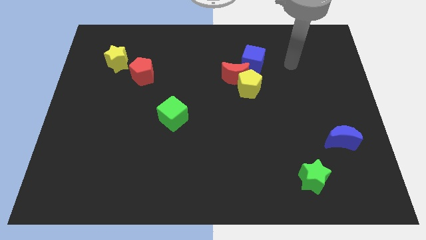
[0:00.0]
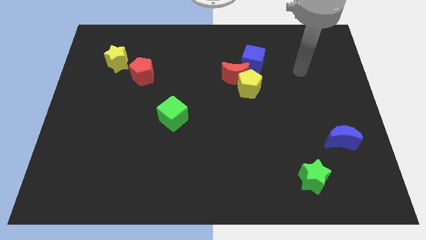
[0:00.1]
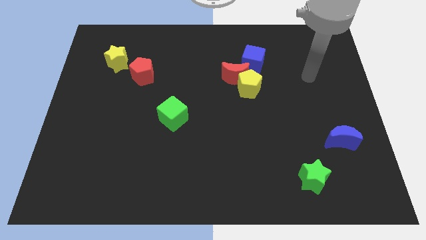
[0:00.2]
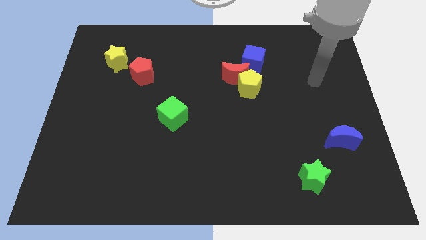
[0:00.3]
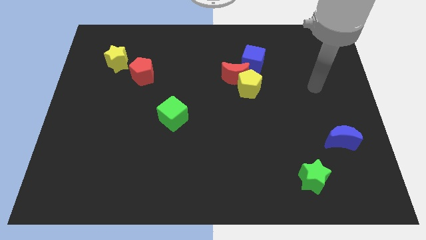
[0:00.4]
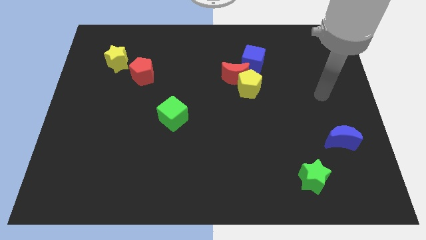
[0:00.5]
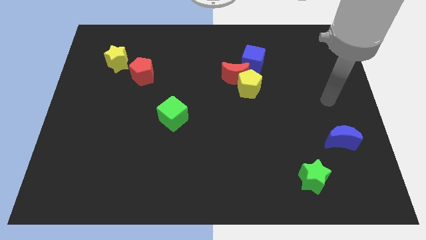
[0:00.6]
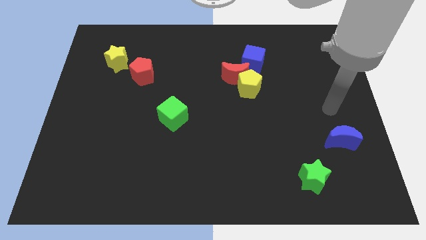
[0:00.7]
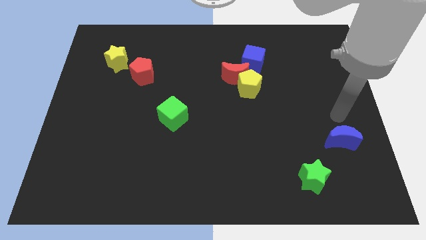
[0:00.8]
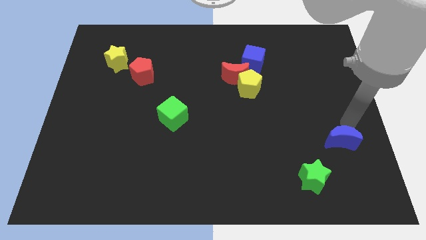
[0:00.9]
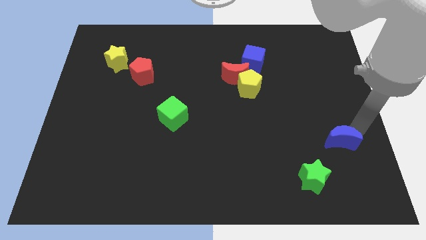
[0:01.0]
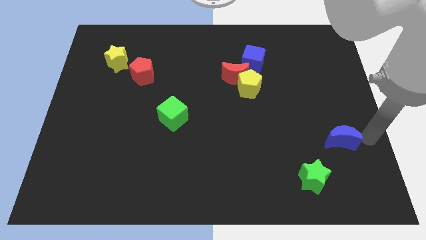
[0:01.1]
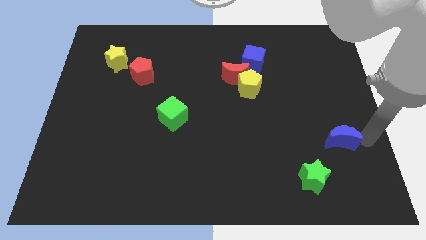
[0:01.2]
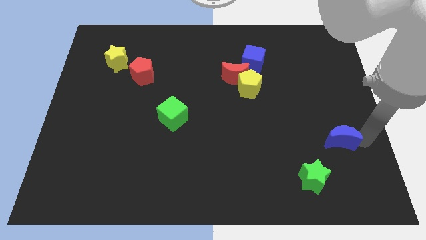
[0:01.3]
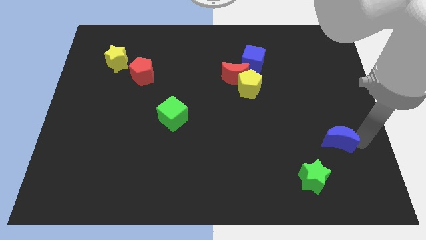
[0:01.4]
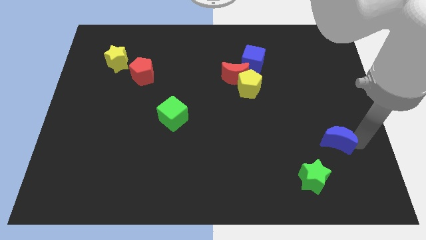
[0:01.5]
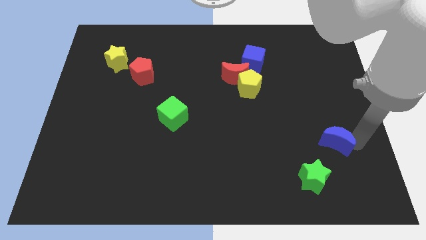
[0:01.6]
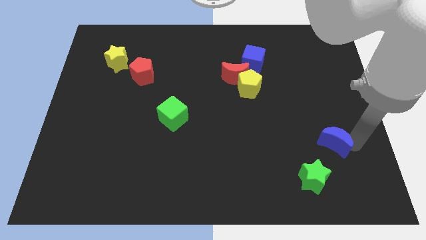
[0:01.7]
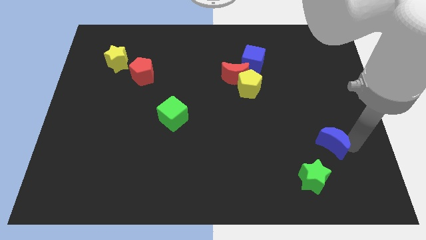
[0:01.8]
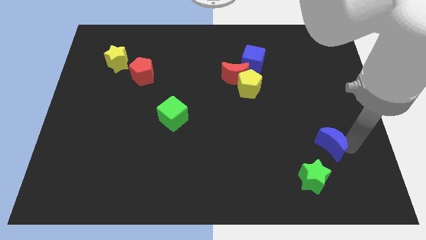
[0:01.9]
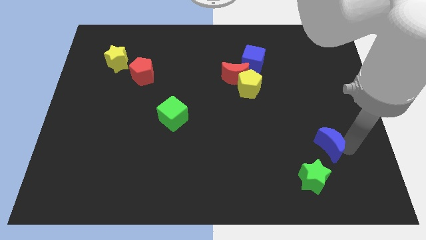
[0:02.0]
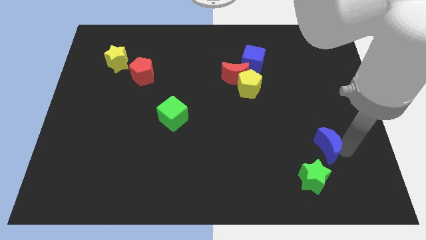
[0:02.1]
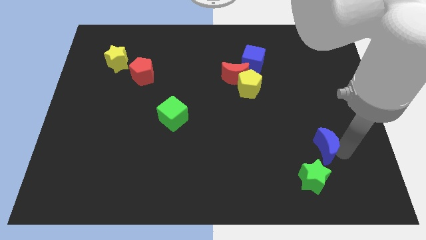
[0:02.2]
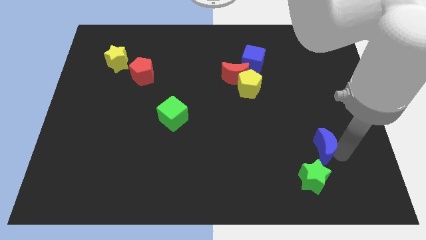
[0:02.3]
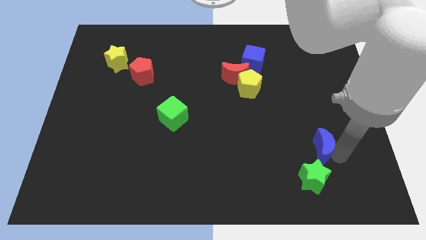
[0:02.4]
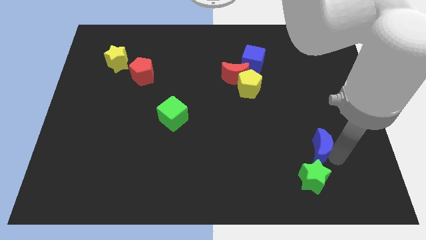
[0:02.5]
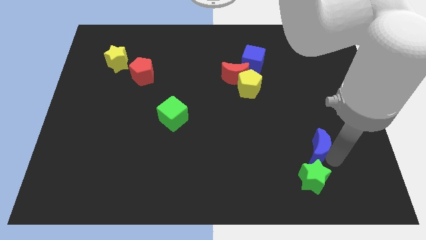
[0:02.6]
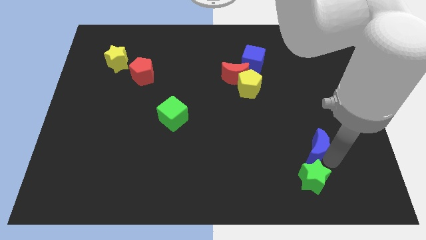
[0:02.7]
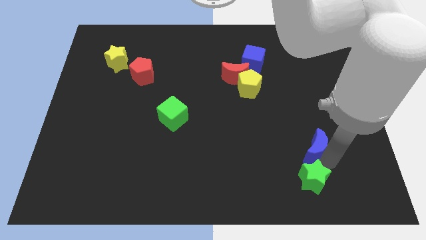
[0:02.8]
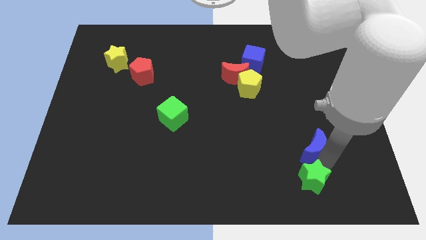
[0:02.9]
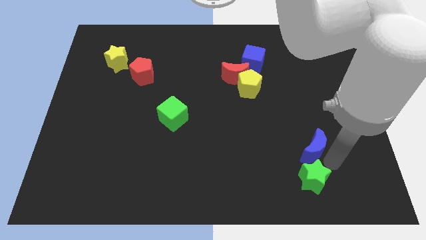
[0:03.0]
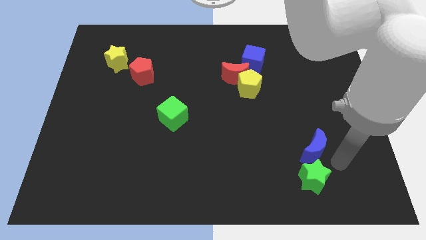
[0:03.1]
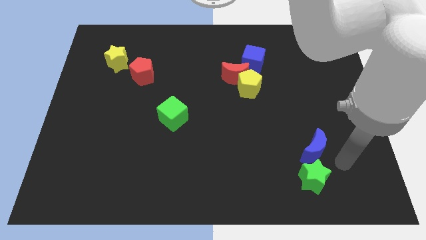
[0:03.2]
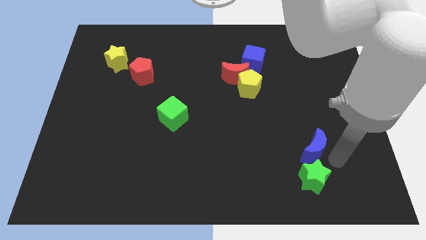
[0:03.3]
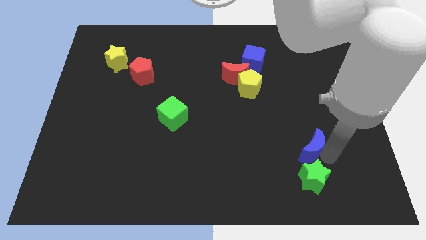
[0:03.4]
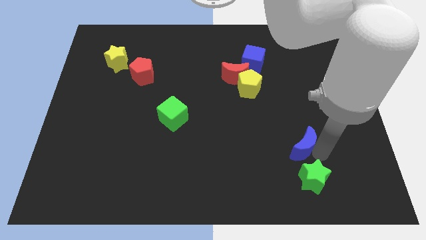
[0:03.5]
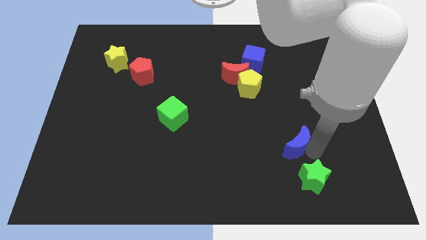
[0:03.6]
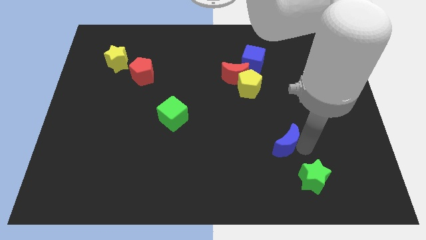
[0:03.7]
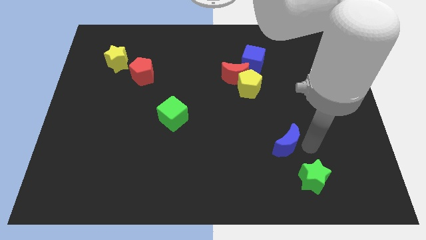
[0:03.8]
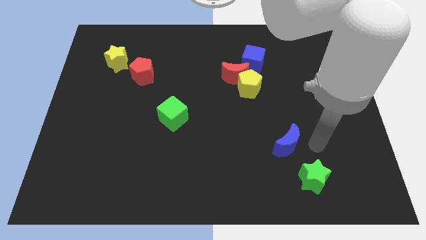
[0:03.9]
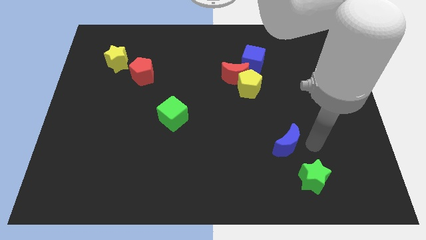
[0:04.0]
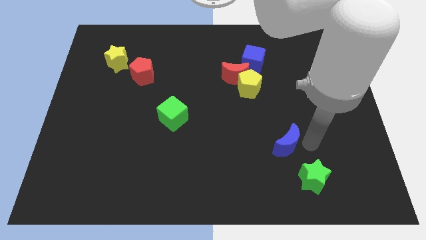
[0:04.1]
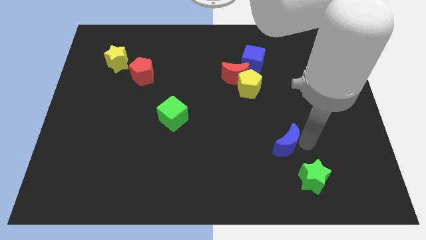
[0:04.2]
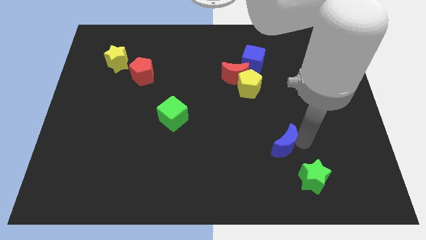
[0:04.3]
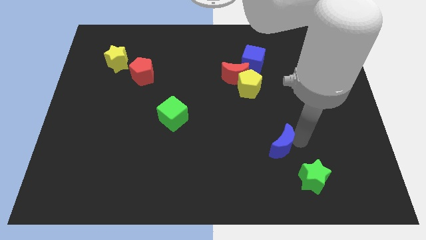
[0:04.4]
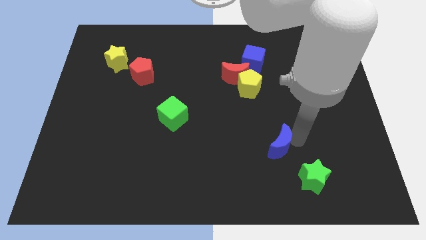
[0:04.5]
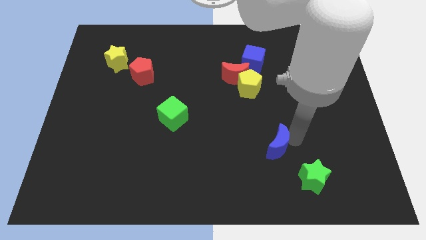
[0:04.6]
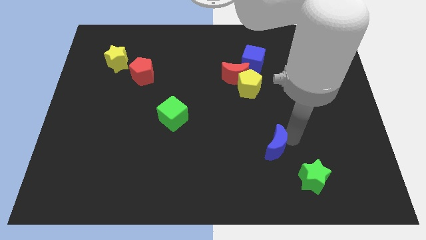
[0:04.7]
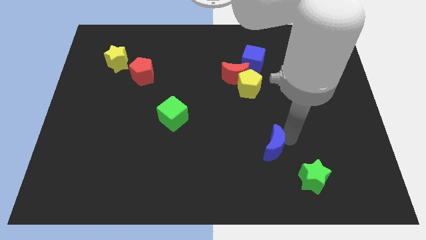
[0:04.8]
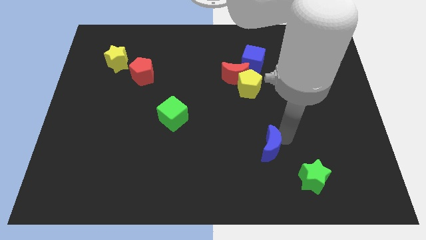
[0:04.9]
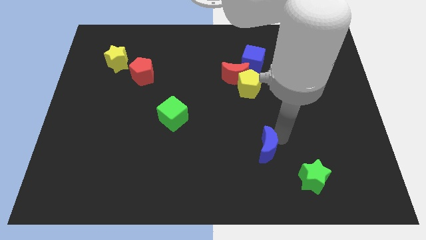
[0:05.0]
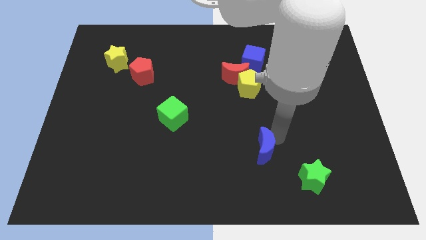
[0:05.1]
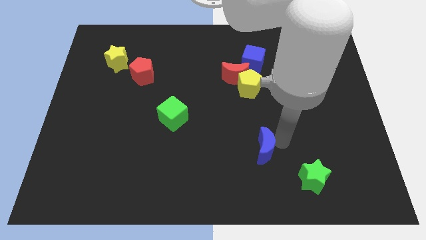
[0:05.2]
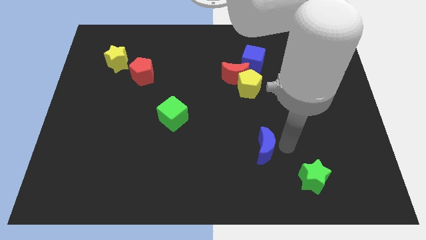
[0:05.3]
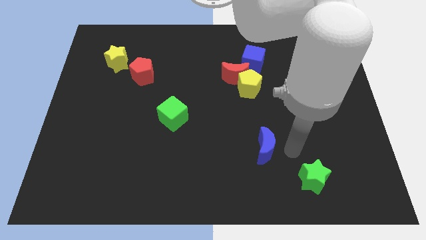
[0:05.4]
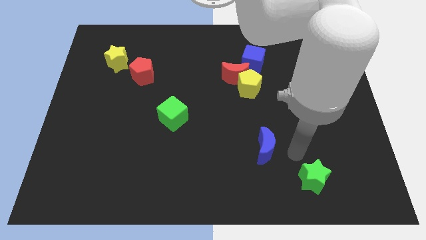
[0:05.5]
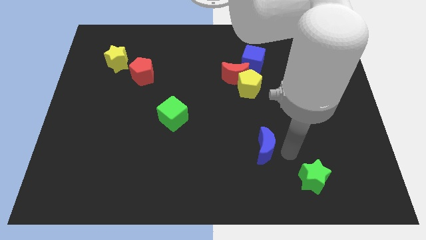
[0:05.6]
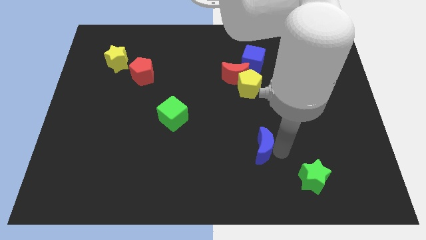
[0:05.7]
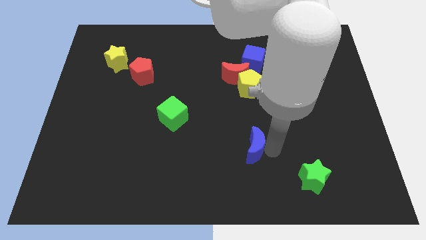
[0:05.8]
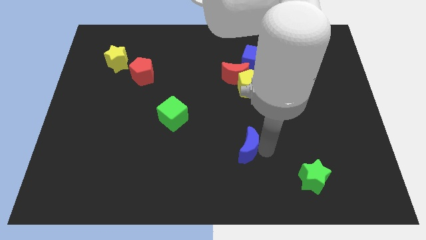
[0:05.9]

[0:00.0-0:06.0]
move the blue moon left

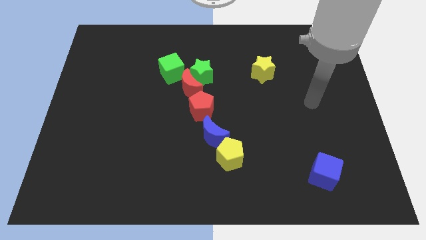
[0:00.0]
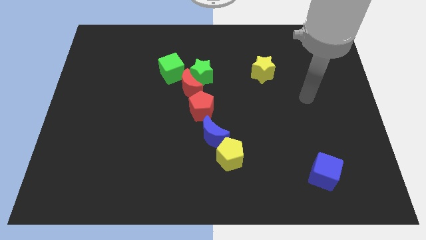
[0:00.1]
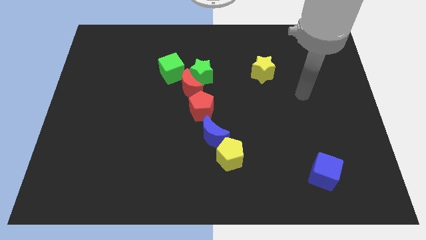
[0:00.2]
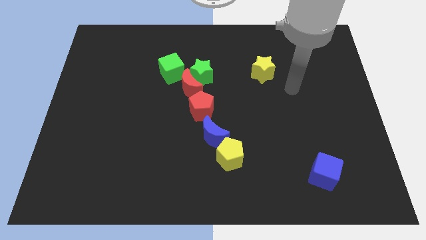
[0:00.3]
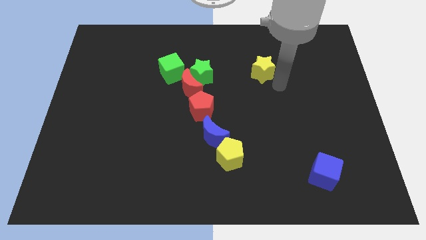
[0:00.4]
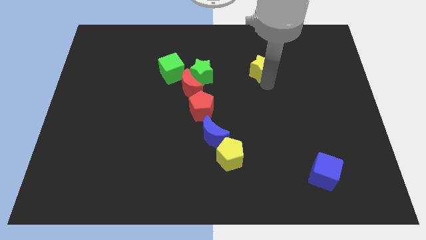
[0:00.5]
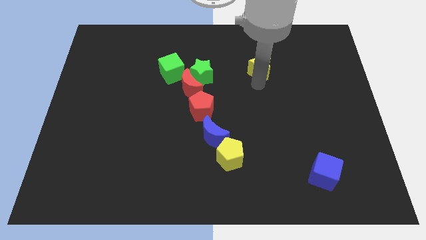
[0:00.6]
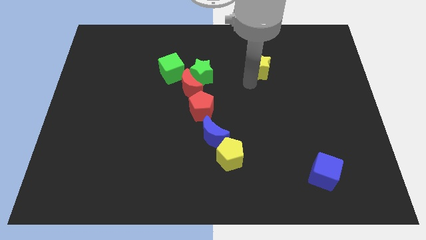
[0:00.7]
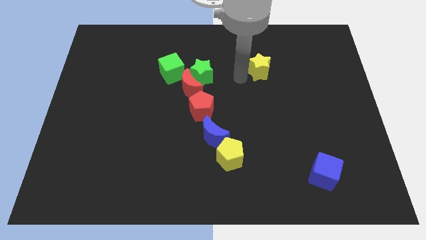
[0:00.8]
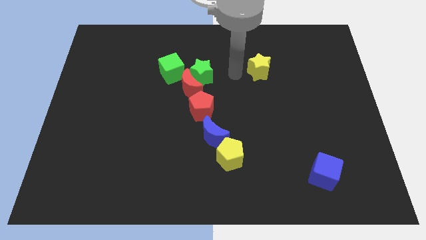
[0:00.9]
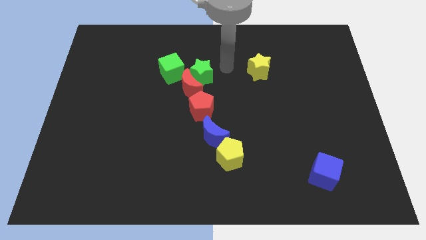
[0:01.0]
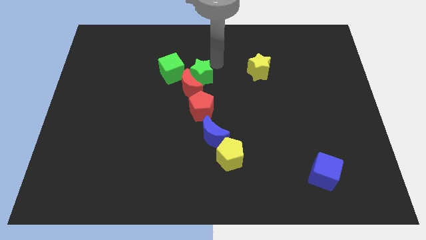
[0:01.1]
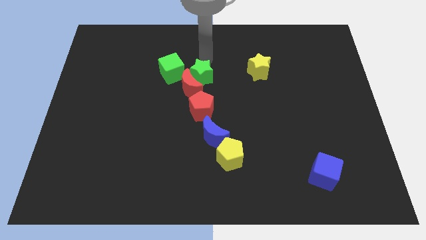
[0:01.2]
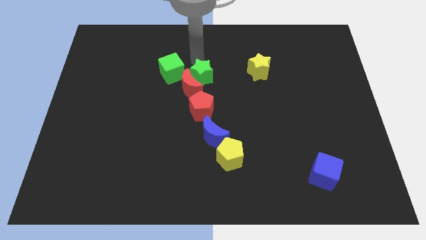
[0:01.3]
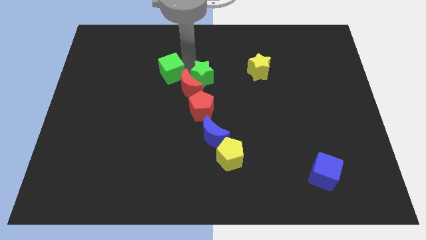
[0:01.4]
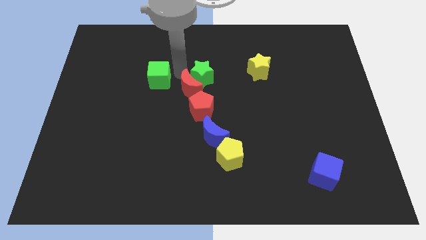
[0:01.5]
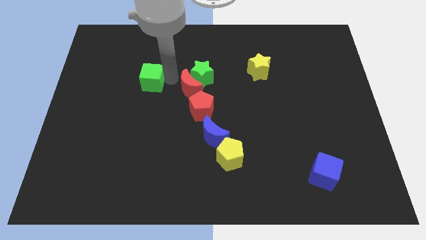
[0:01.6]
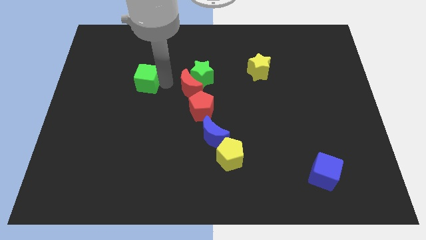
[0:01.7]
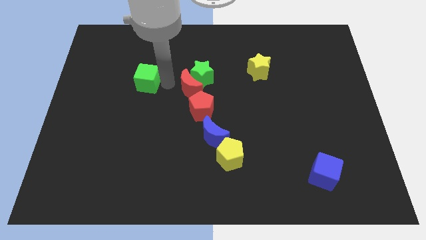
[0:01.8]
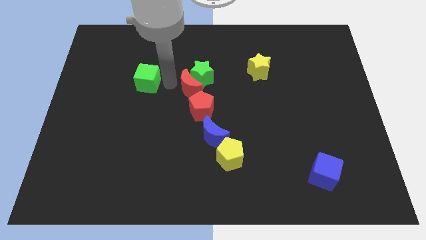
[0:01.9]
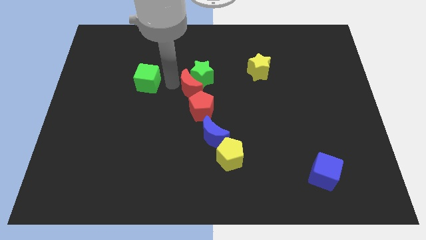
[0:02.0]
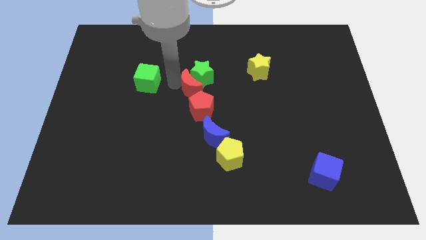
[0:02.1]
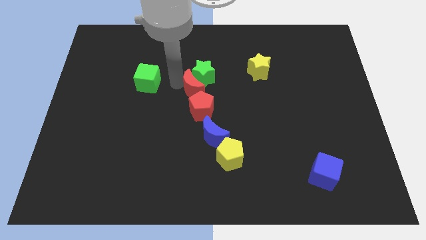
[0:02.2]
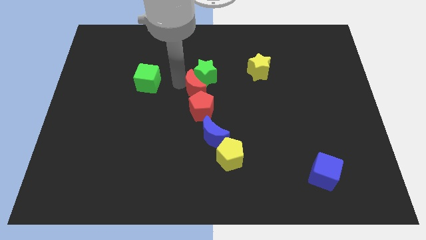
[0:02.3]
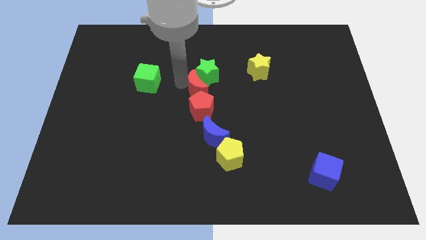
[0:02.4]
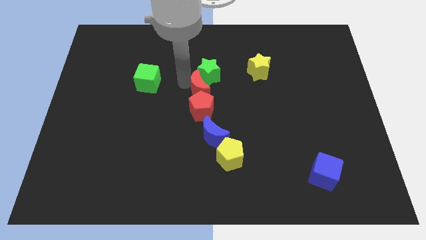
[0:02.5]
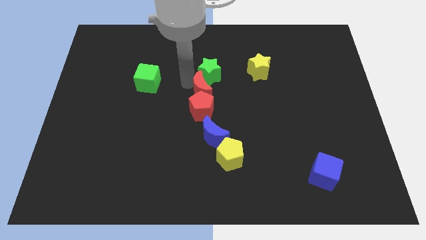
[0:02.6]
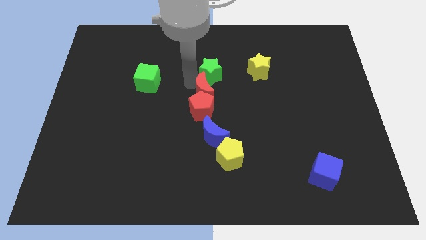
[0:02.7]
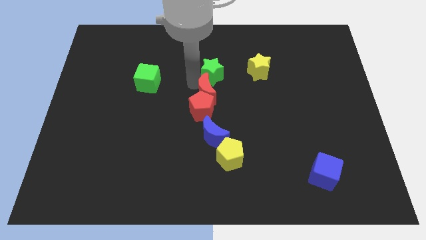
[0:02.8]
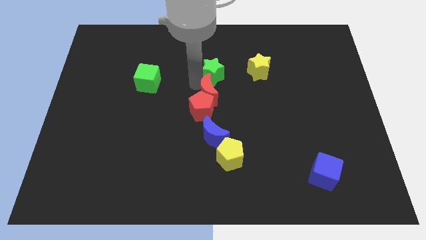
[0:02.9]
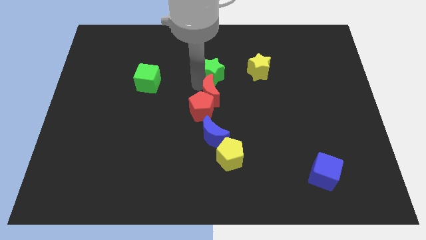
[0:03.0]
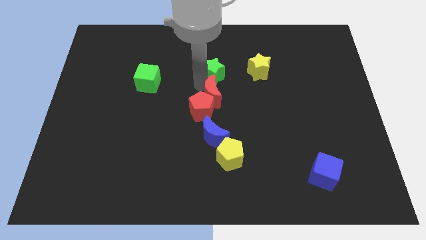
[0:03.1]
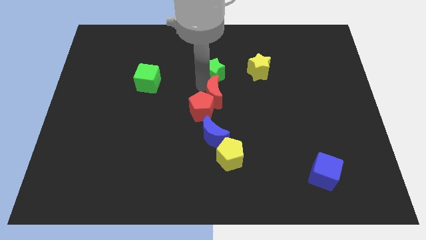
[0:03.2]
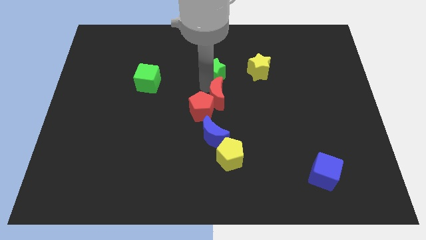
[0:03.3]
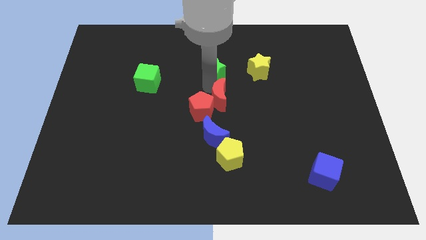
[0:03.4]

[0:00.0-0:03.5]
push the red moon a bit downwards and right
